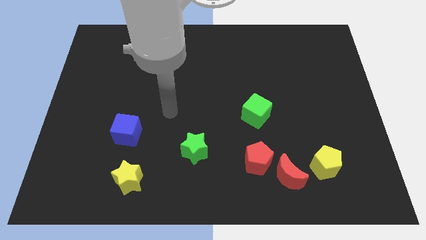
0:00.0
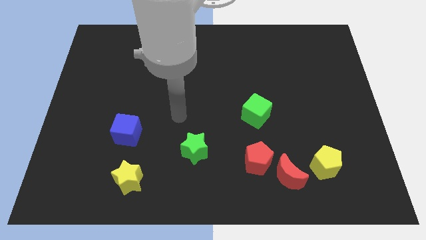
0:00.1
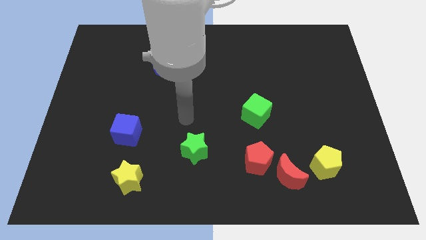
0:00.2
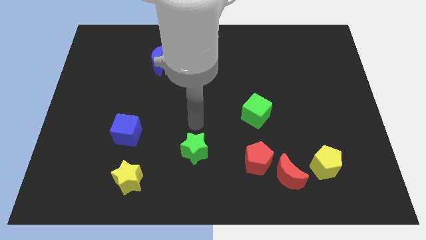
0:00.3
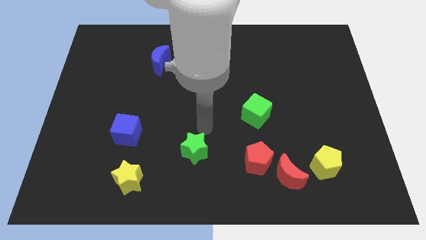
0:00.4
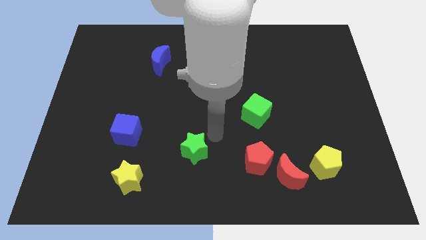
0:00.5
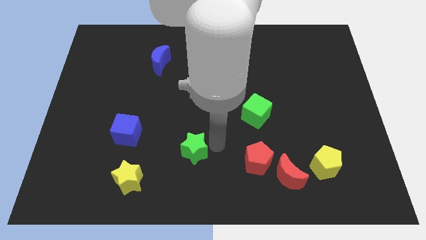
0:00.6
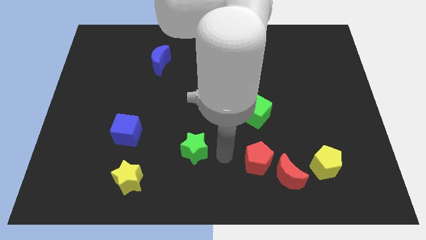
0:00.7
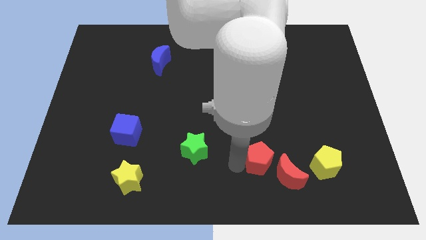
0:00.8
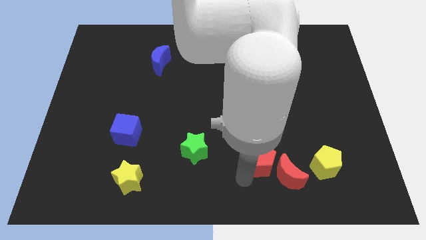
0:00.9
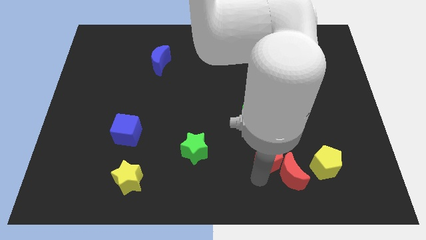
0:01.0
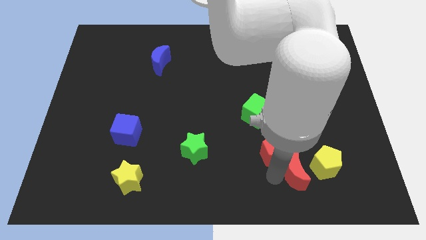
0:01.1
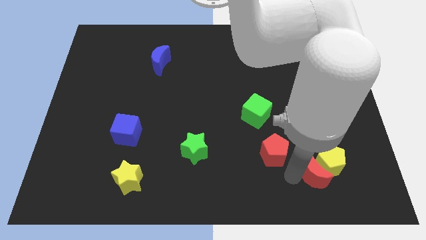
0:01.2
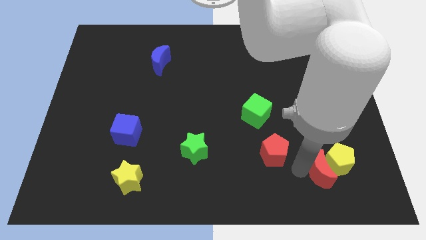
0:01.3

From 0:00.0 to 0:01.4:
pull the red pentagon apart from the red moon

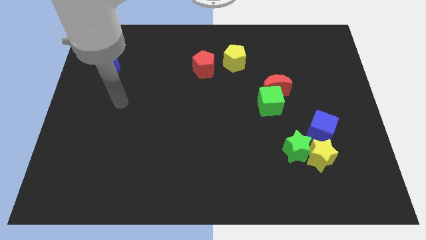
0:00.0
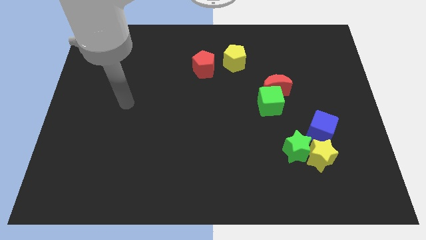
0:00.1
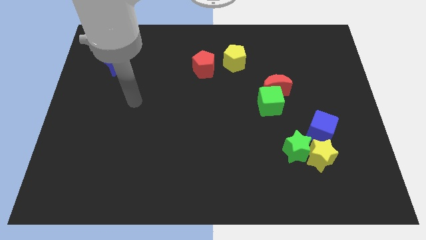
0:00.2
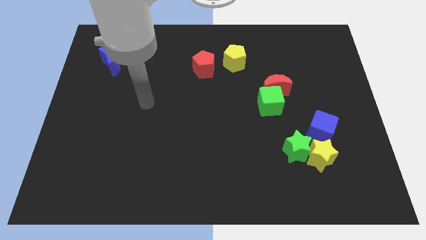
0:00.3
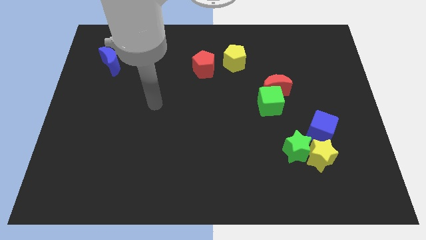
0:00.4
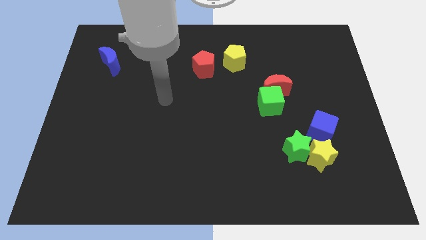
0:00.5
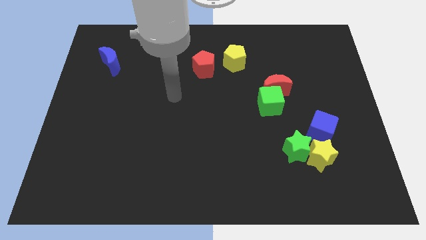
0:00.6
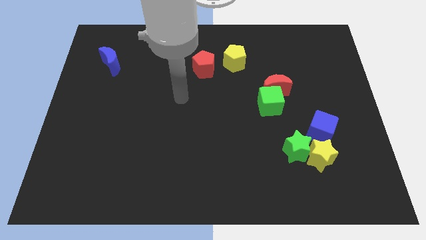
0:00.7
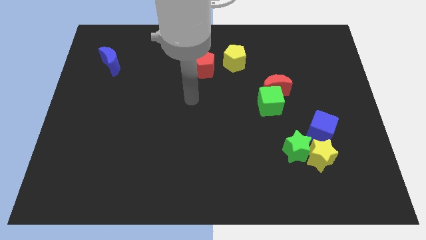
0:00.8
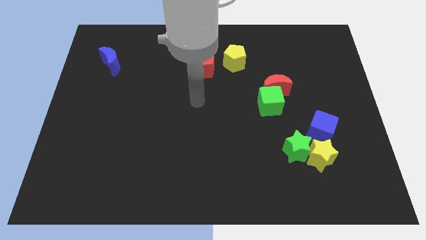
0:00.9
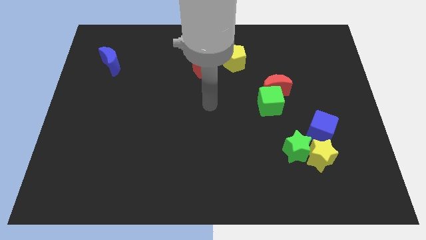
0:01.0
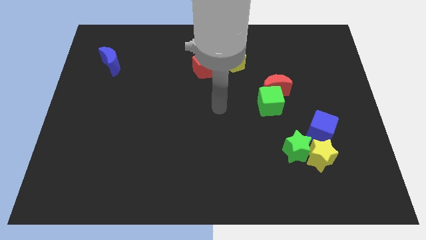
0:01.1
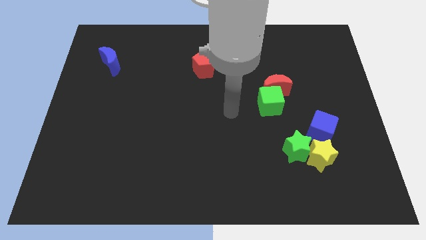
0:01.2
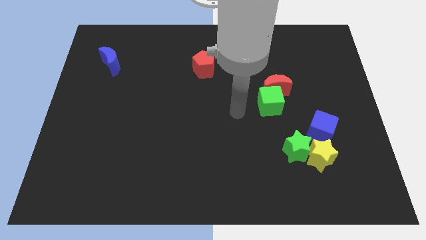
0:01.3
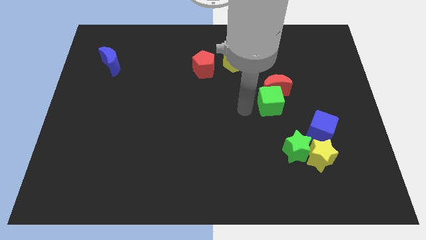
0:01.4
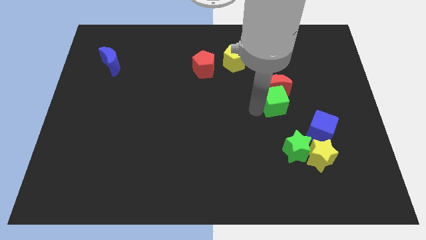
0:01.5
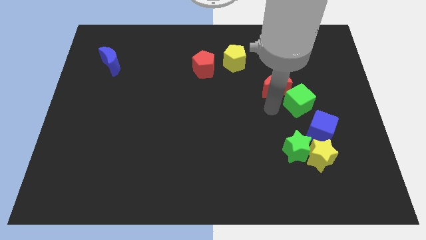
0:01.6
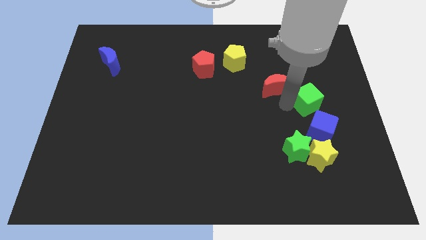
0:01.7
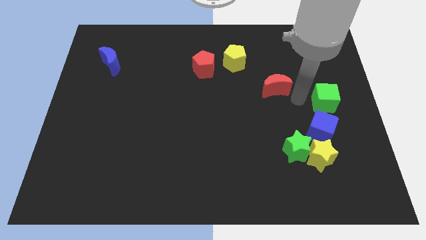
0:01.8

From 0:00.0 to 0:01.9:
pull the red moon apart from the green cube

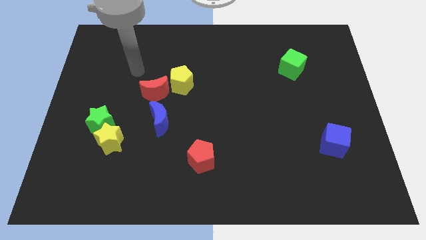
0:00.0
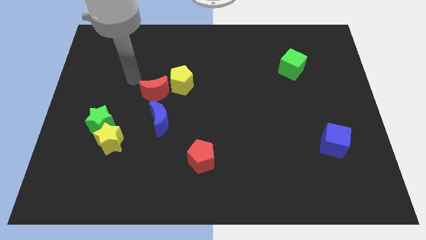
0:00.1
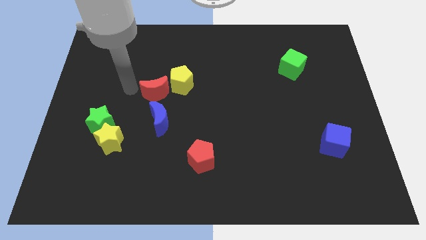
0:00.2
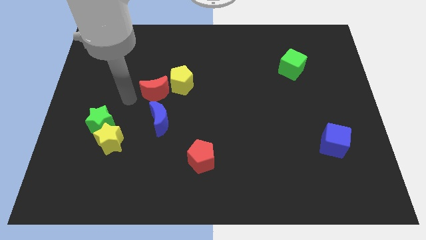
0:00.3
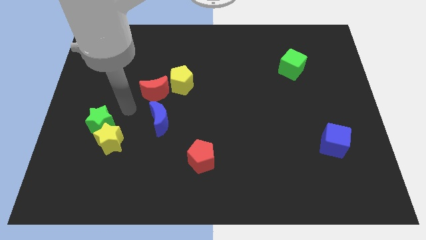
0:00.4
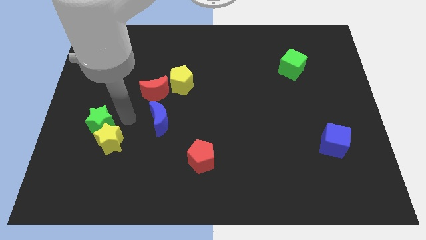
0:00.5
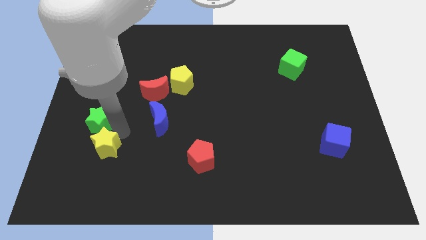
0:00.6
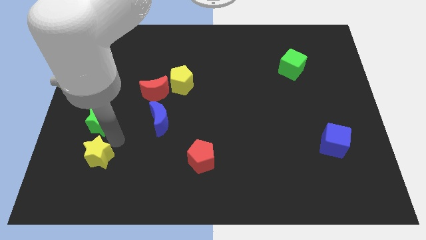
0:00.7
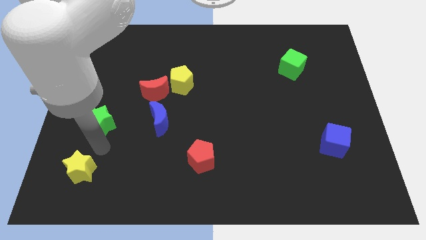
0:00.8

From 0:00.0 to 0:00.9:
separate the green star from the yellow star

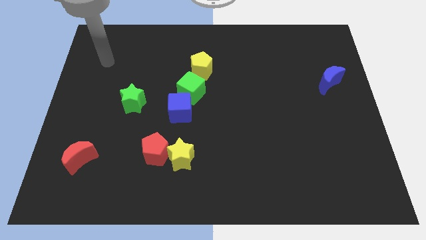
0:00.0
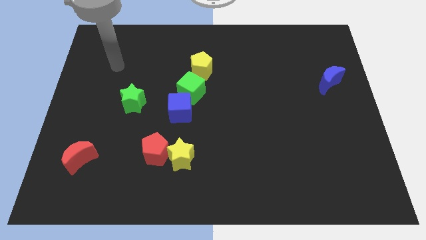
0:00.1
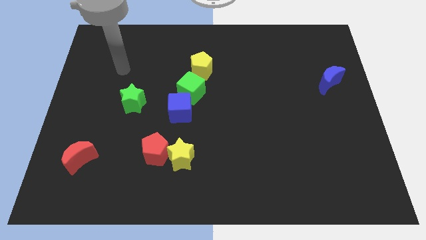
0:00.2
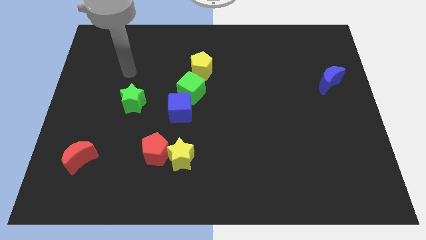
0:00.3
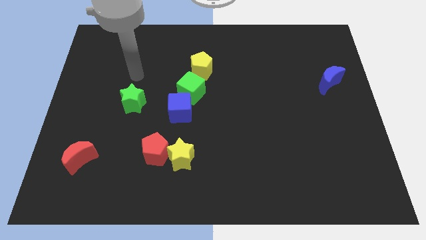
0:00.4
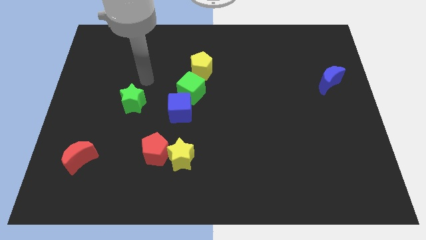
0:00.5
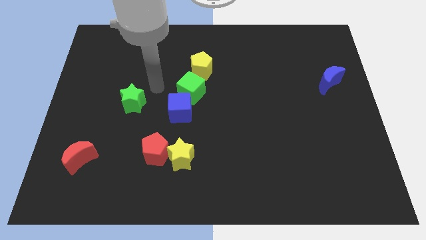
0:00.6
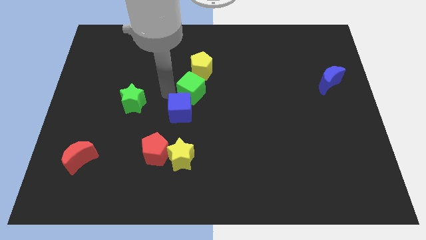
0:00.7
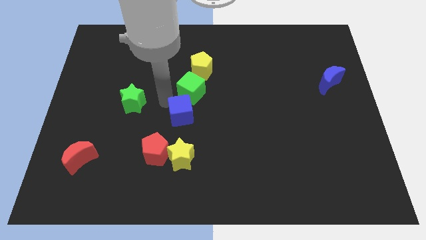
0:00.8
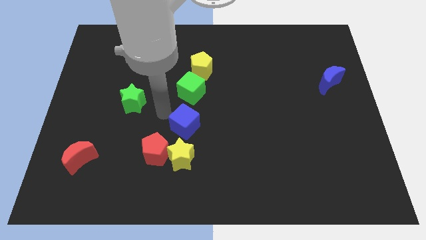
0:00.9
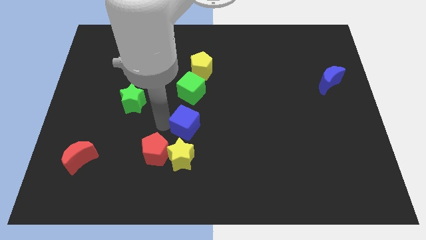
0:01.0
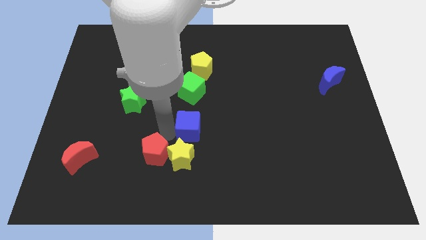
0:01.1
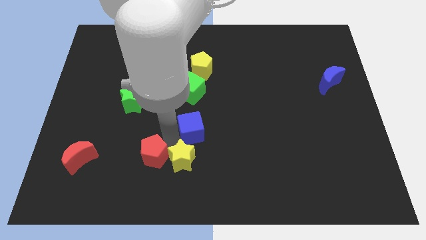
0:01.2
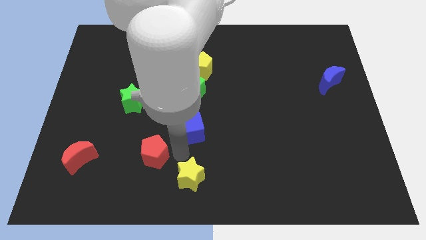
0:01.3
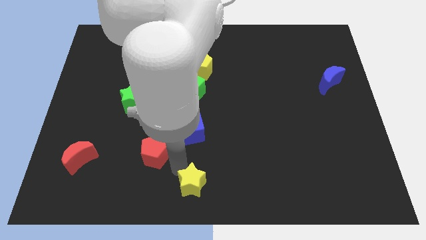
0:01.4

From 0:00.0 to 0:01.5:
separate the red pentagon from the yellow star

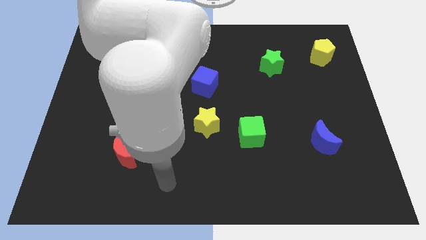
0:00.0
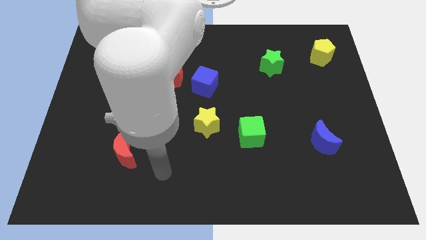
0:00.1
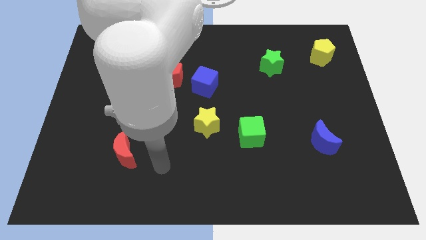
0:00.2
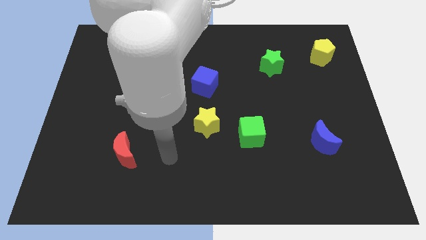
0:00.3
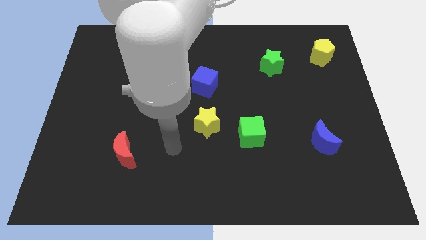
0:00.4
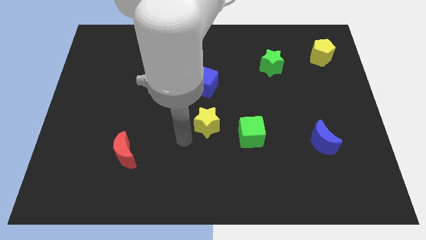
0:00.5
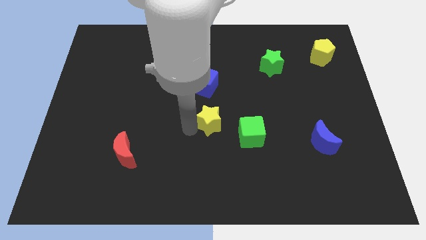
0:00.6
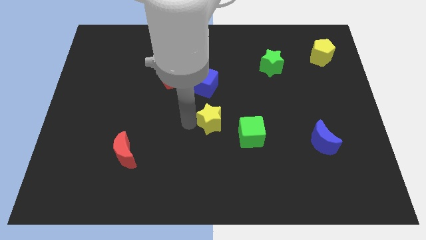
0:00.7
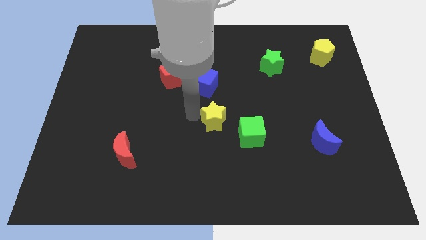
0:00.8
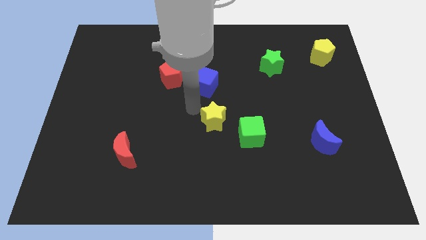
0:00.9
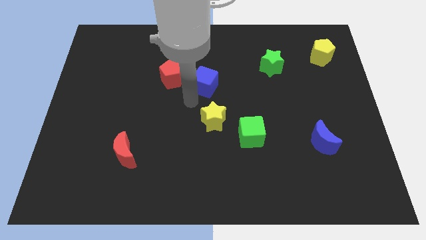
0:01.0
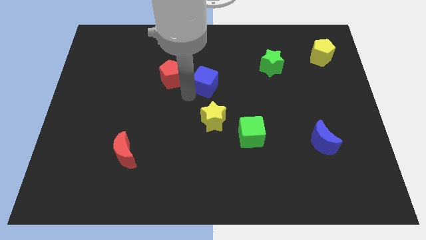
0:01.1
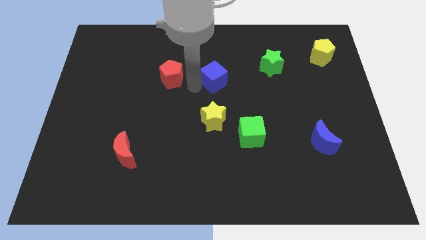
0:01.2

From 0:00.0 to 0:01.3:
pull the red pentagon apart from the blue cube

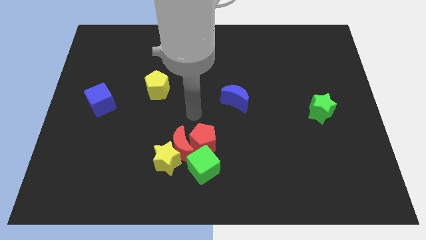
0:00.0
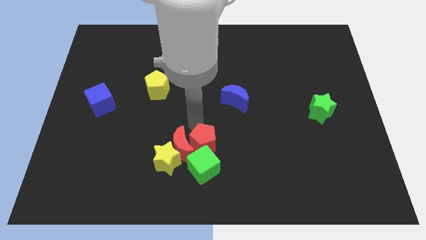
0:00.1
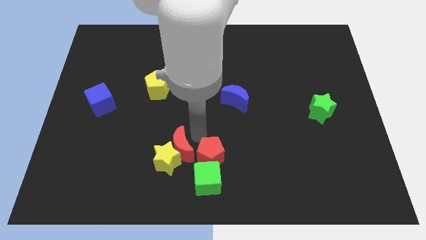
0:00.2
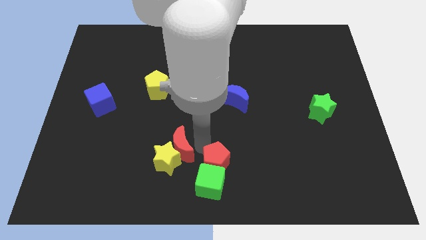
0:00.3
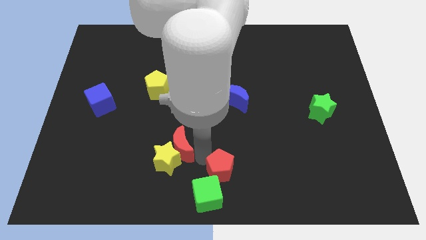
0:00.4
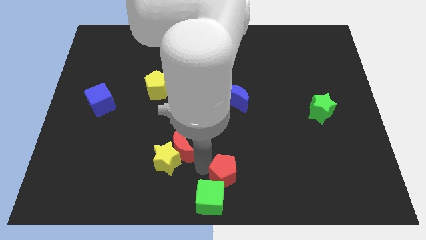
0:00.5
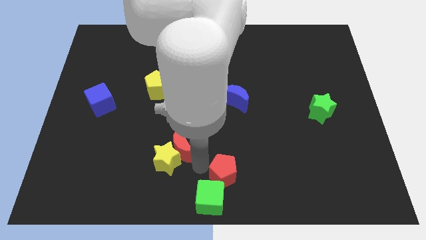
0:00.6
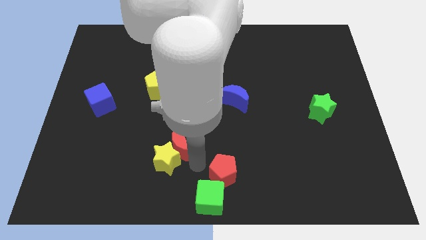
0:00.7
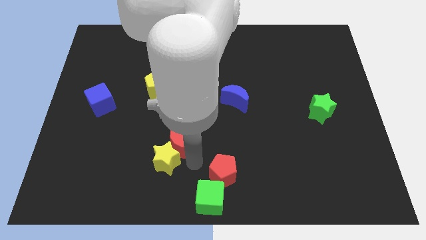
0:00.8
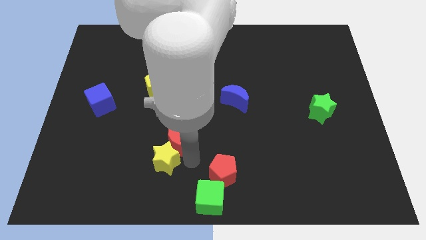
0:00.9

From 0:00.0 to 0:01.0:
separate the red moon from the yellow star, red pentagon, and green cube

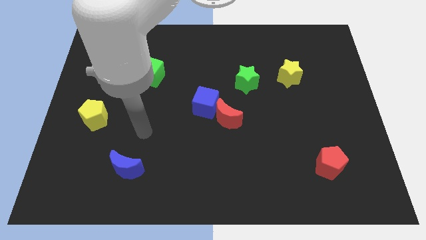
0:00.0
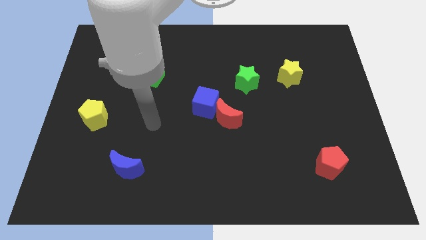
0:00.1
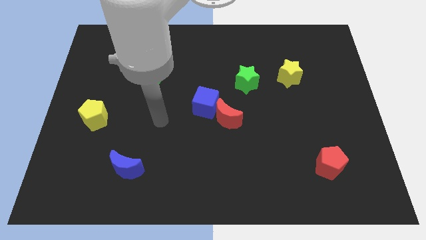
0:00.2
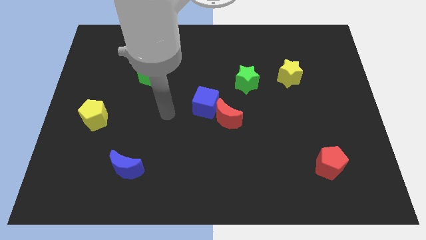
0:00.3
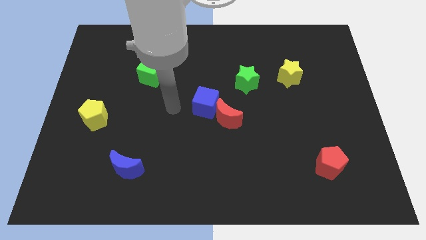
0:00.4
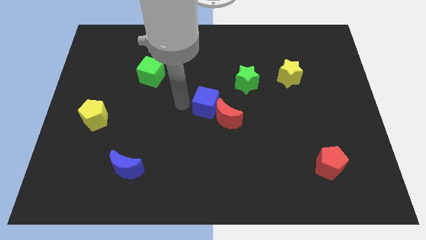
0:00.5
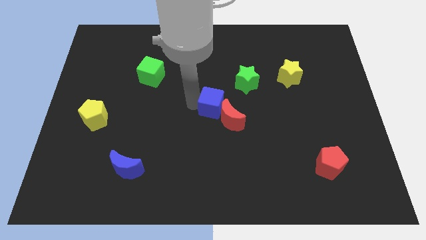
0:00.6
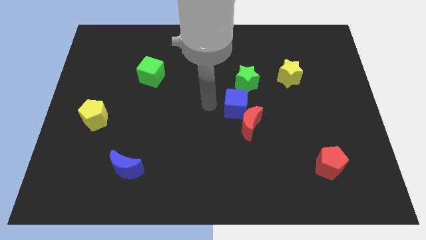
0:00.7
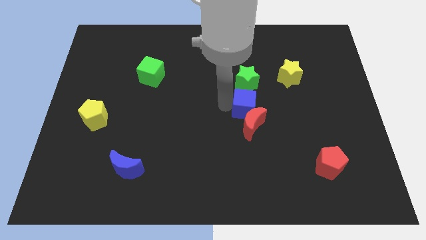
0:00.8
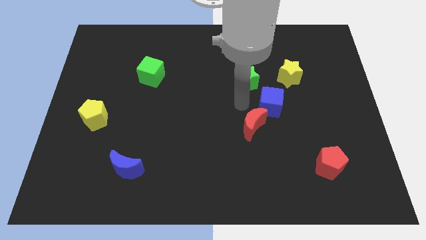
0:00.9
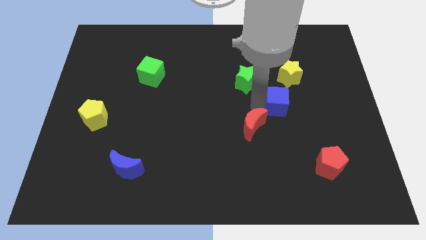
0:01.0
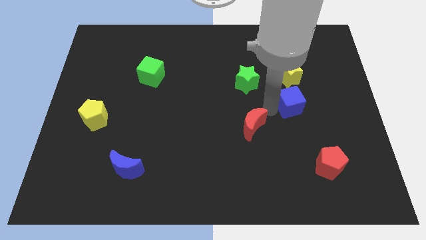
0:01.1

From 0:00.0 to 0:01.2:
pull the red moon apart from the blue cube
